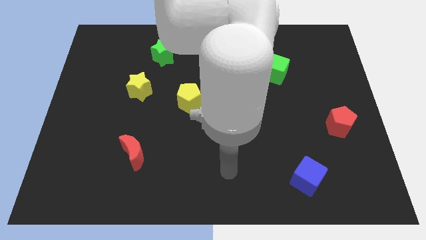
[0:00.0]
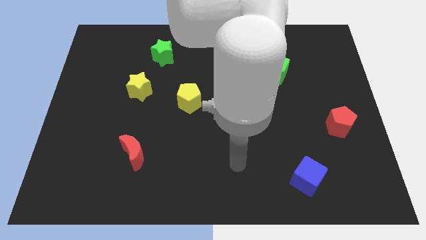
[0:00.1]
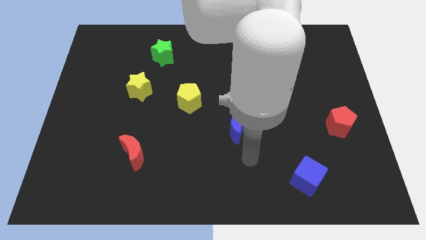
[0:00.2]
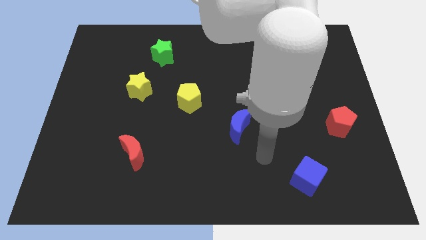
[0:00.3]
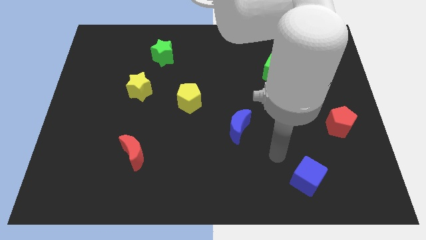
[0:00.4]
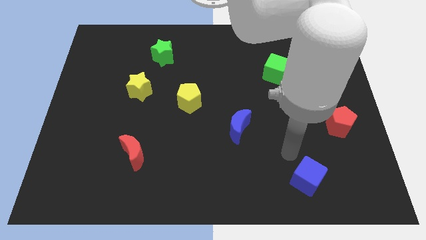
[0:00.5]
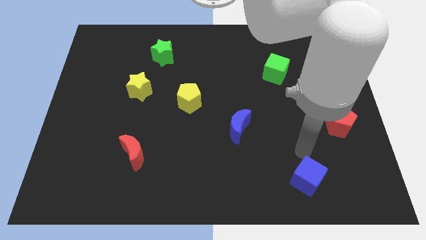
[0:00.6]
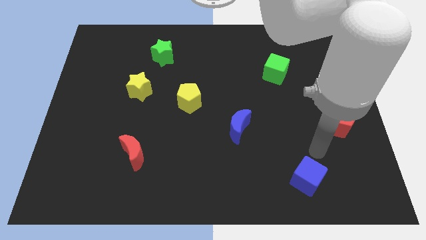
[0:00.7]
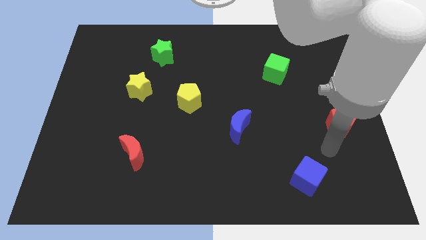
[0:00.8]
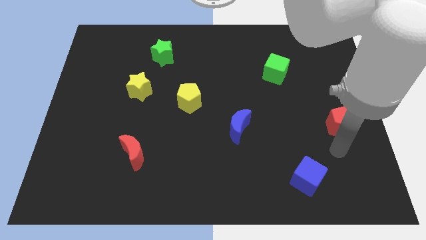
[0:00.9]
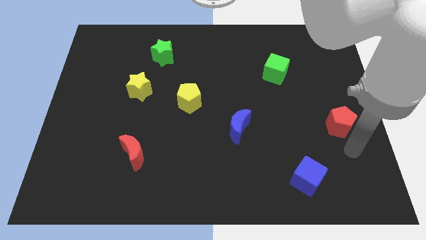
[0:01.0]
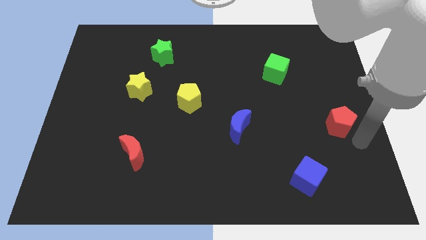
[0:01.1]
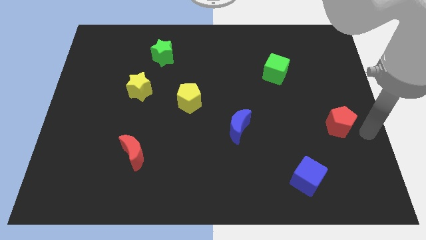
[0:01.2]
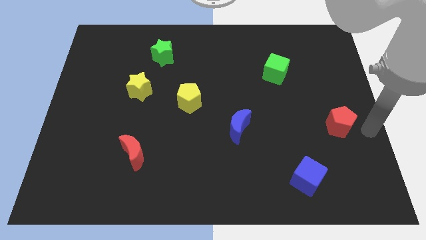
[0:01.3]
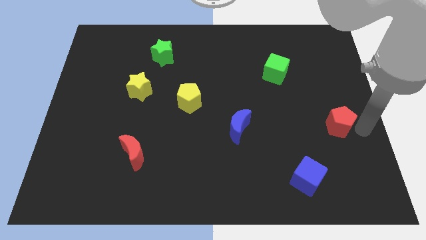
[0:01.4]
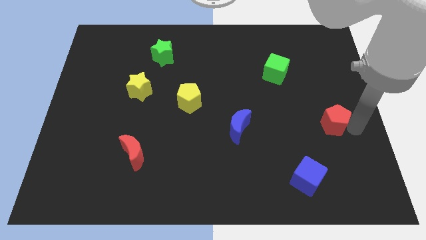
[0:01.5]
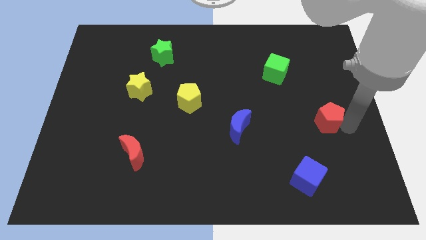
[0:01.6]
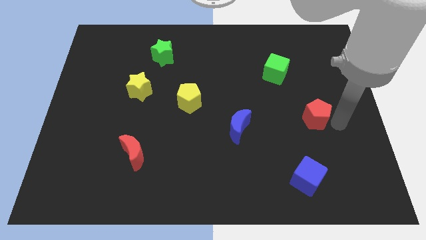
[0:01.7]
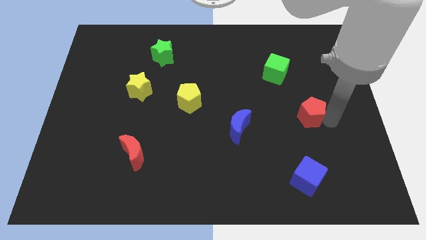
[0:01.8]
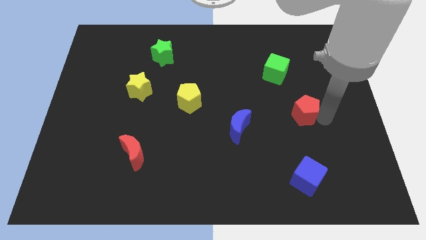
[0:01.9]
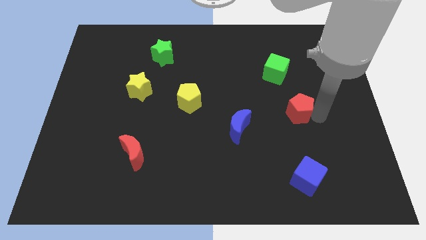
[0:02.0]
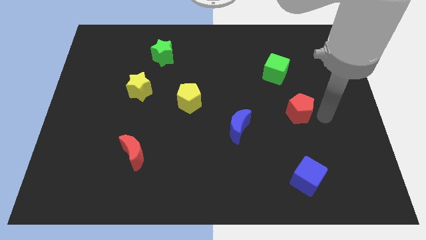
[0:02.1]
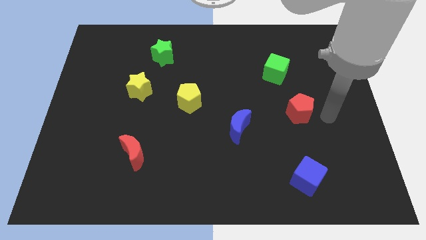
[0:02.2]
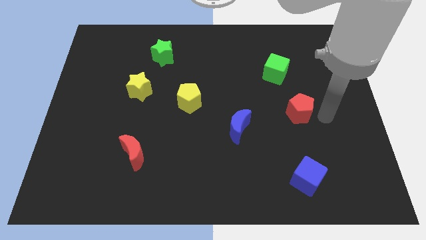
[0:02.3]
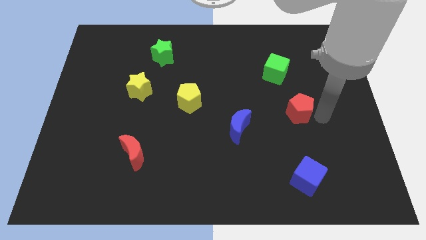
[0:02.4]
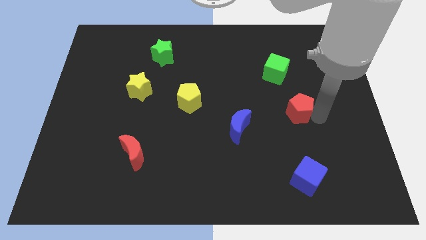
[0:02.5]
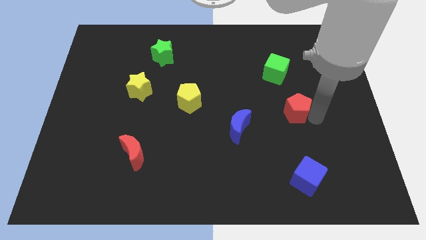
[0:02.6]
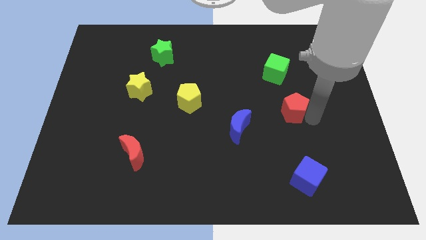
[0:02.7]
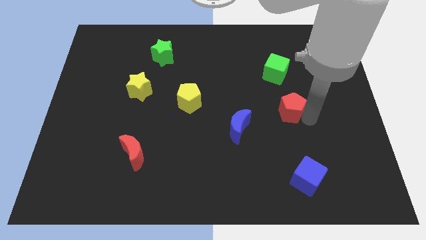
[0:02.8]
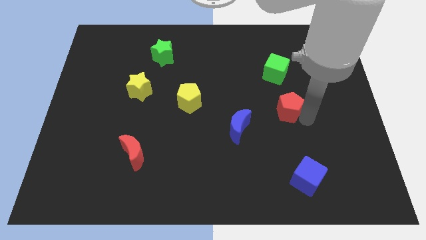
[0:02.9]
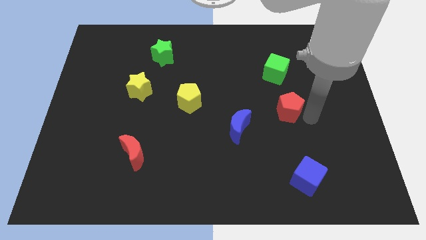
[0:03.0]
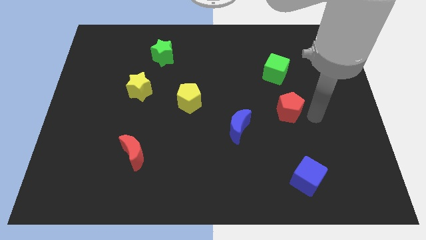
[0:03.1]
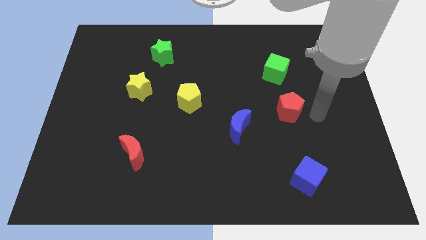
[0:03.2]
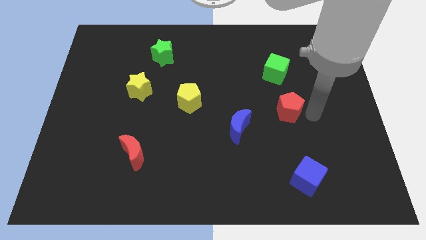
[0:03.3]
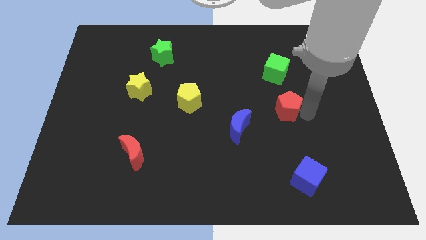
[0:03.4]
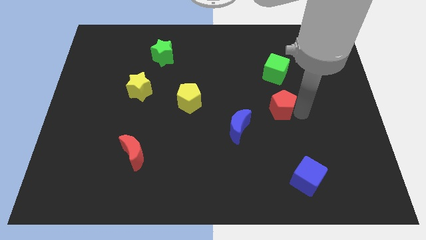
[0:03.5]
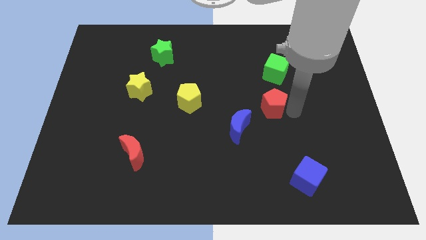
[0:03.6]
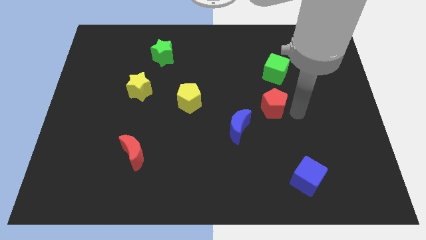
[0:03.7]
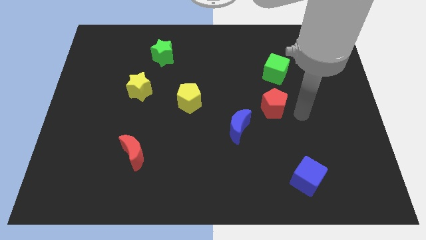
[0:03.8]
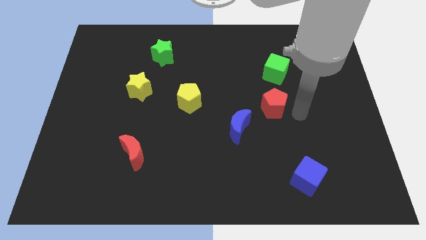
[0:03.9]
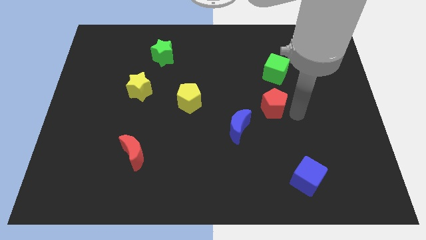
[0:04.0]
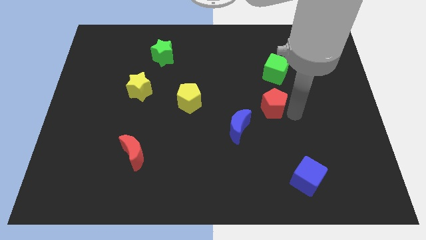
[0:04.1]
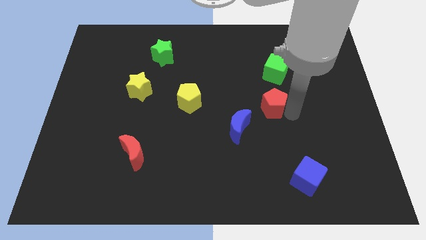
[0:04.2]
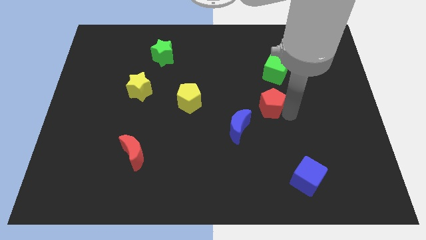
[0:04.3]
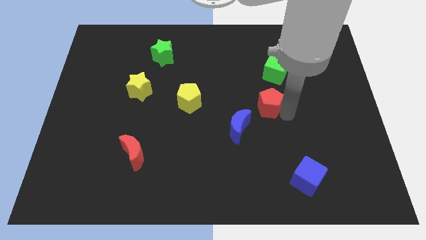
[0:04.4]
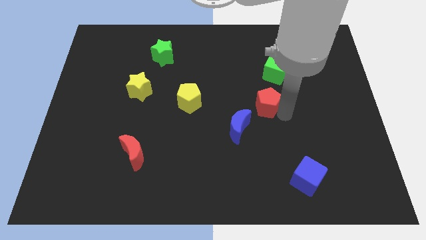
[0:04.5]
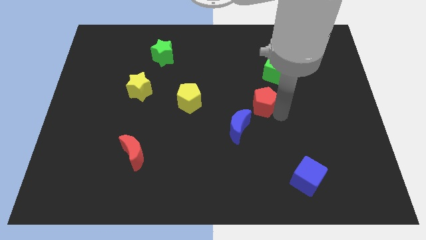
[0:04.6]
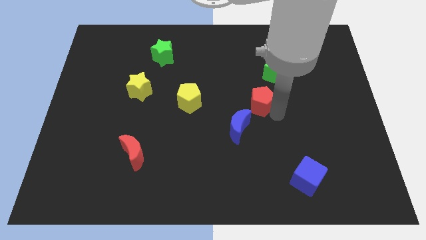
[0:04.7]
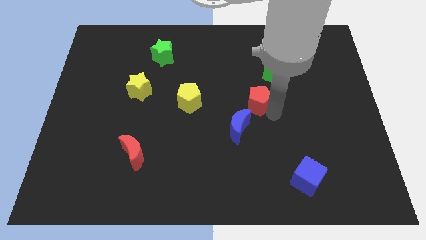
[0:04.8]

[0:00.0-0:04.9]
put the red pentagon above the blue moon

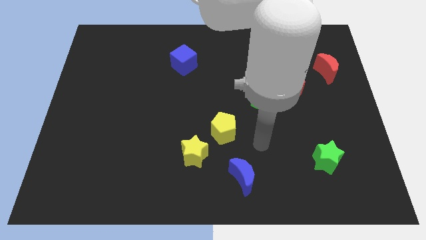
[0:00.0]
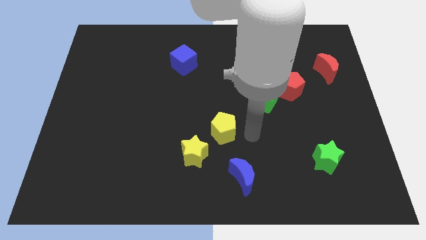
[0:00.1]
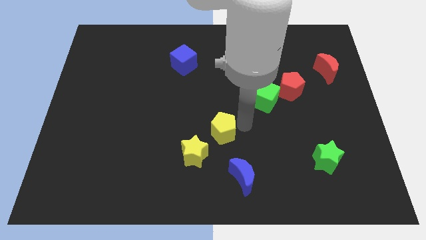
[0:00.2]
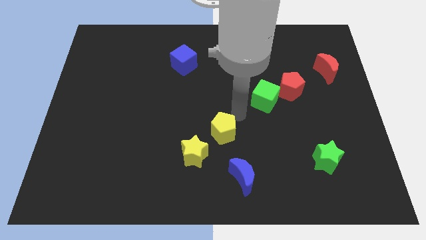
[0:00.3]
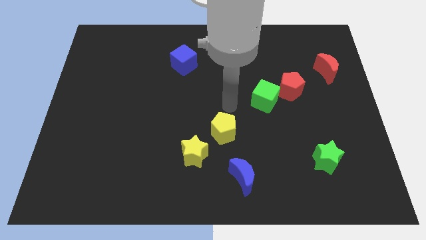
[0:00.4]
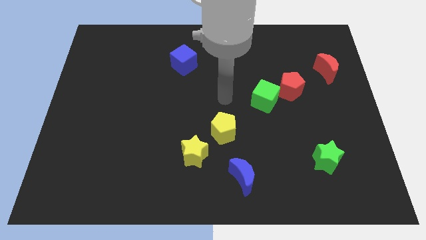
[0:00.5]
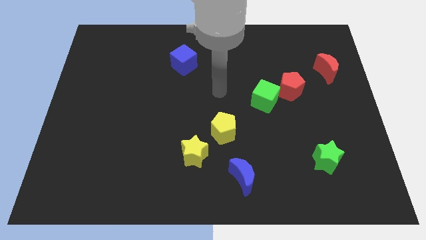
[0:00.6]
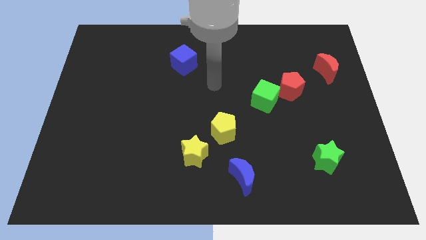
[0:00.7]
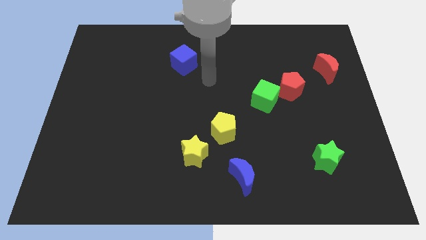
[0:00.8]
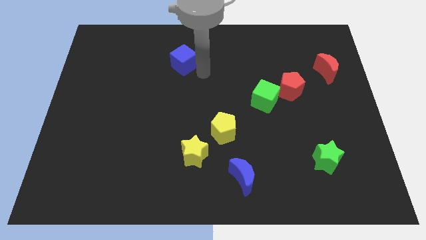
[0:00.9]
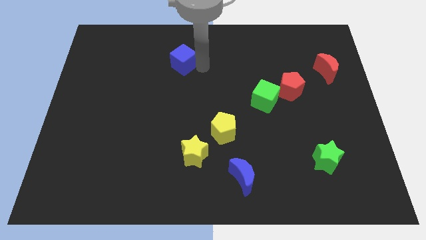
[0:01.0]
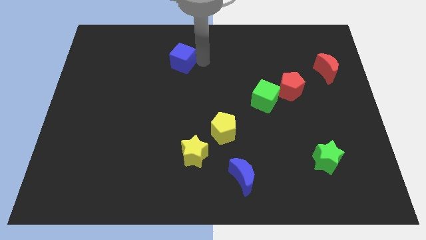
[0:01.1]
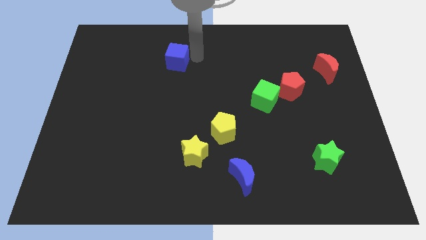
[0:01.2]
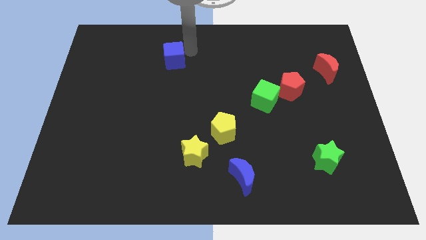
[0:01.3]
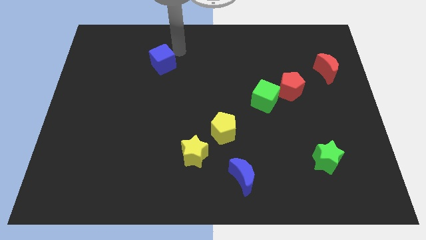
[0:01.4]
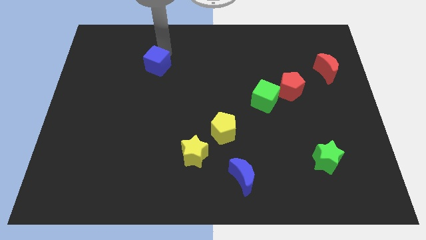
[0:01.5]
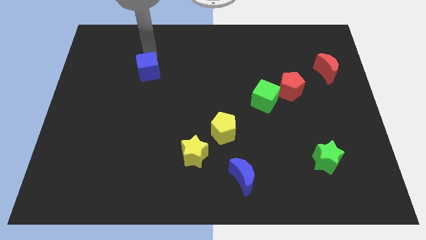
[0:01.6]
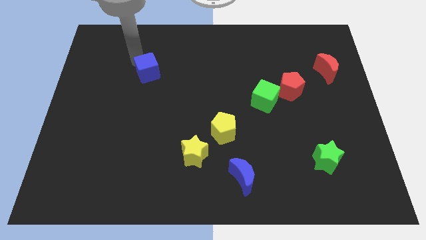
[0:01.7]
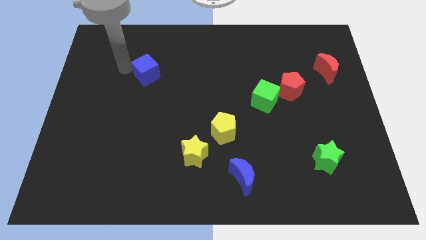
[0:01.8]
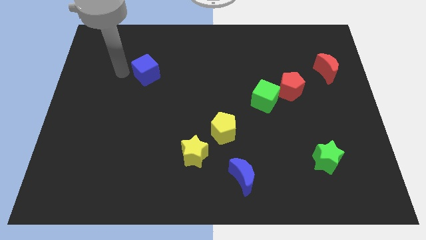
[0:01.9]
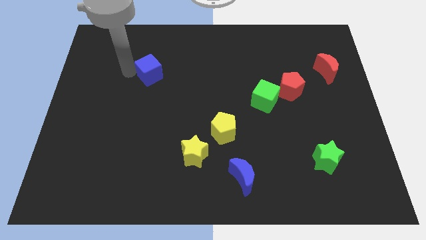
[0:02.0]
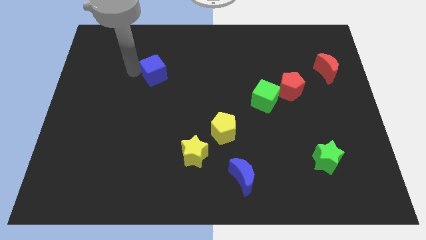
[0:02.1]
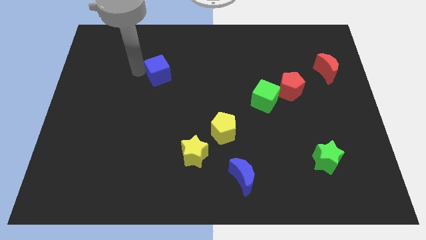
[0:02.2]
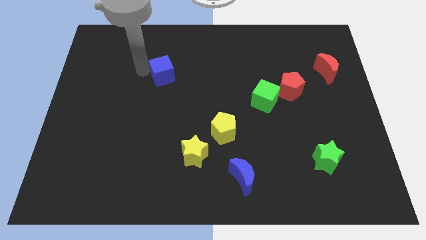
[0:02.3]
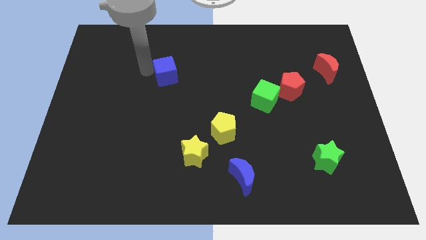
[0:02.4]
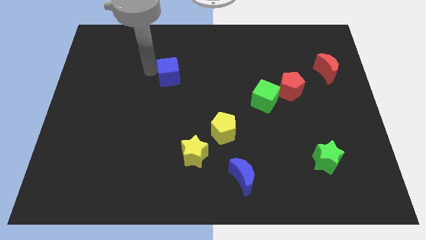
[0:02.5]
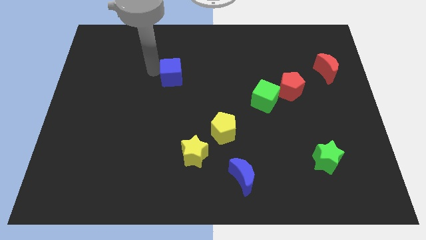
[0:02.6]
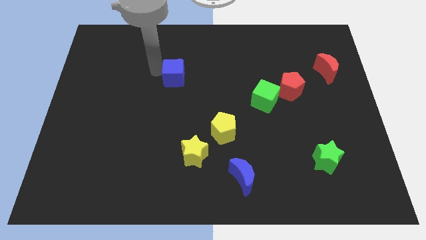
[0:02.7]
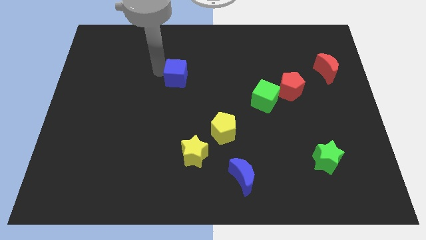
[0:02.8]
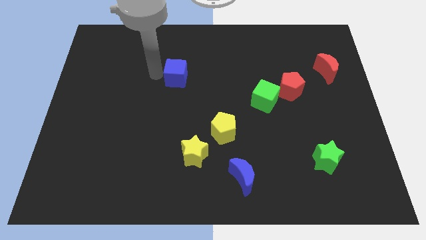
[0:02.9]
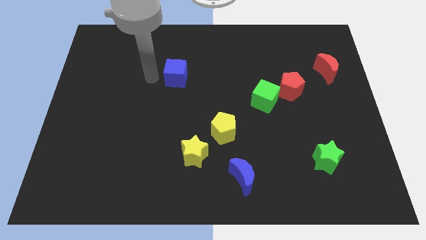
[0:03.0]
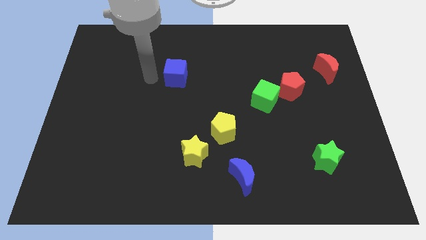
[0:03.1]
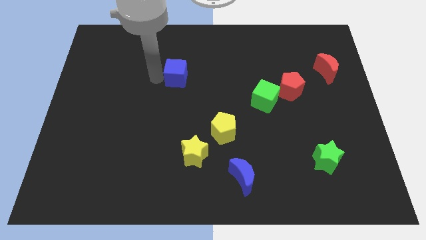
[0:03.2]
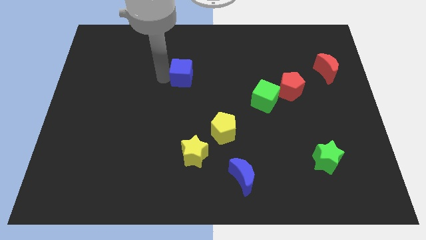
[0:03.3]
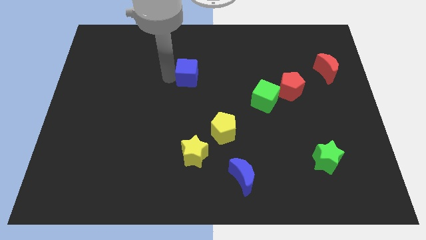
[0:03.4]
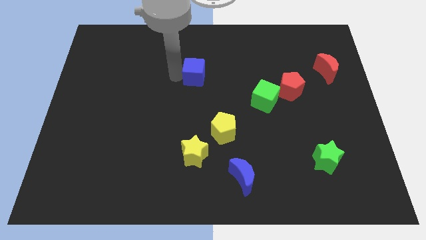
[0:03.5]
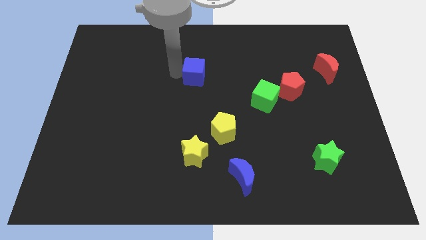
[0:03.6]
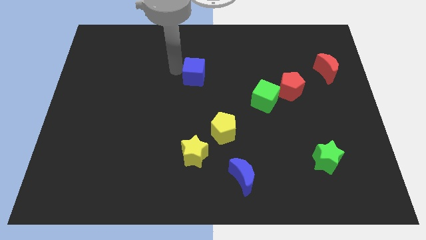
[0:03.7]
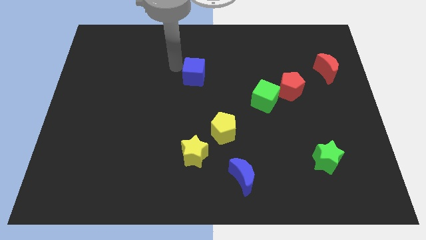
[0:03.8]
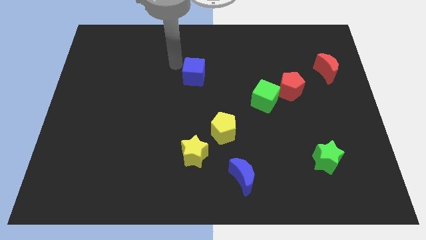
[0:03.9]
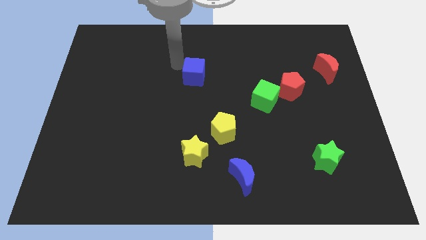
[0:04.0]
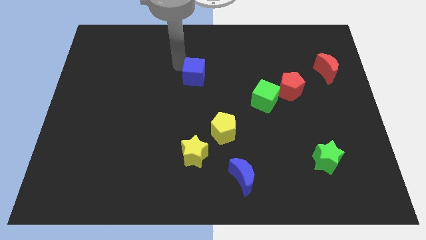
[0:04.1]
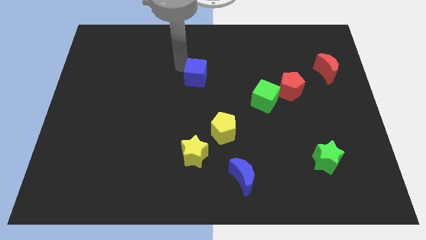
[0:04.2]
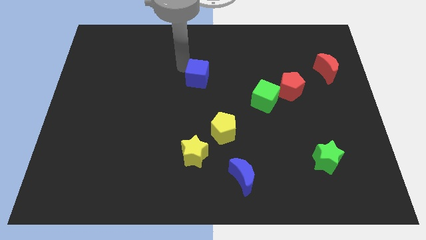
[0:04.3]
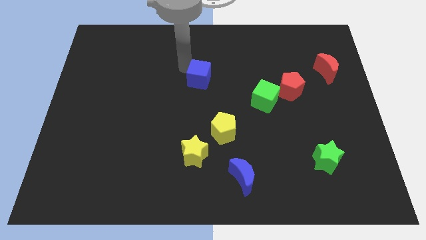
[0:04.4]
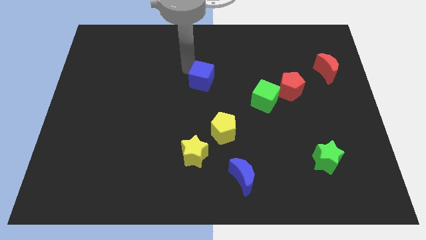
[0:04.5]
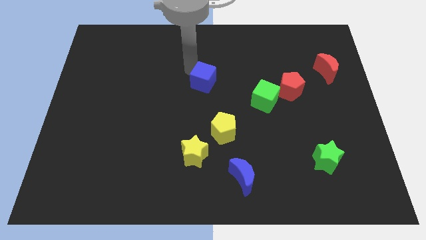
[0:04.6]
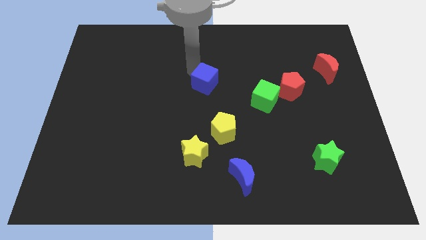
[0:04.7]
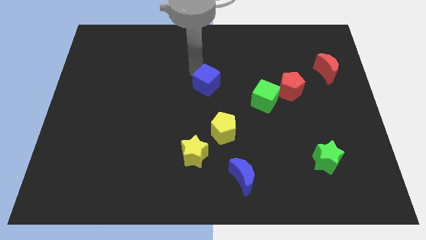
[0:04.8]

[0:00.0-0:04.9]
slide the blue cube to the top side of the yellow pentagon
